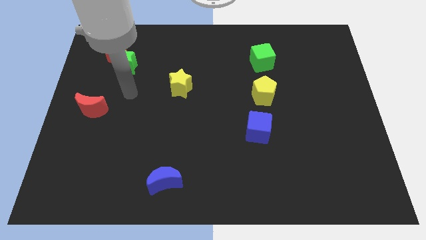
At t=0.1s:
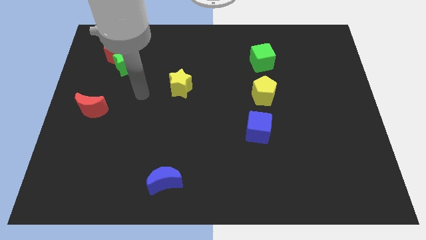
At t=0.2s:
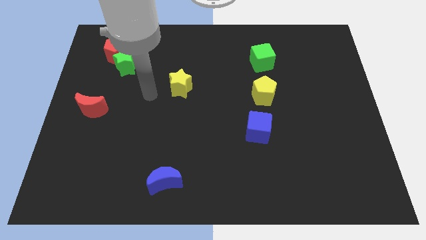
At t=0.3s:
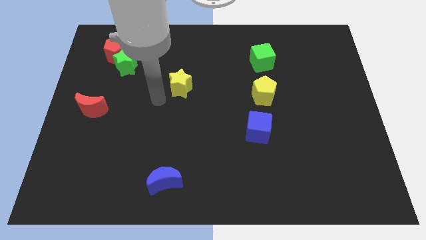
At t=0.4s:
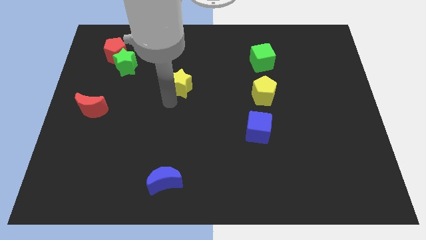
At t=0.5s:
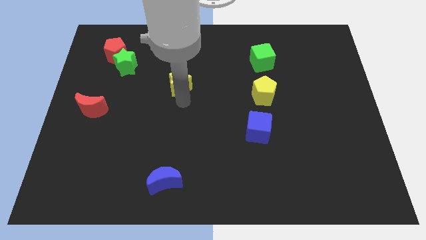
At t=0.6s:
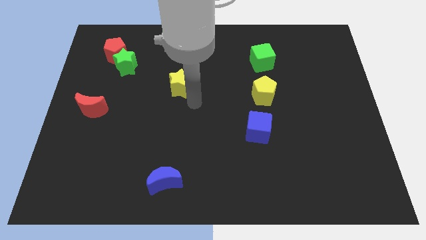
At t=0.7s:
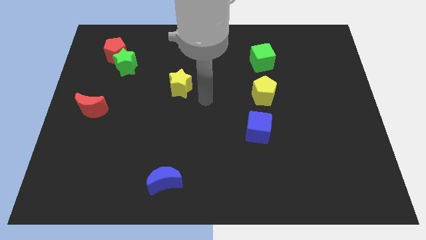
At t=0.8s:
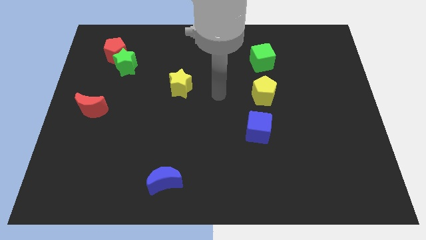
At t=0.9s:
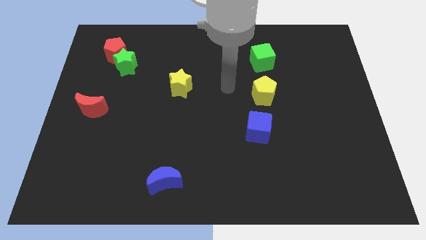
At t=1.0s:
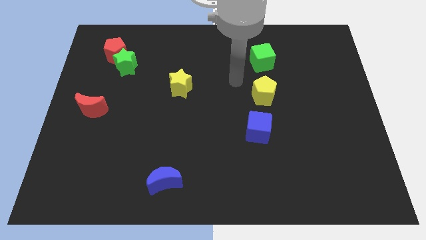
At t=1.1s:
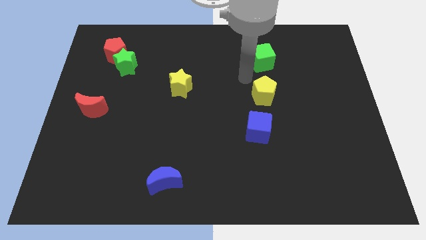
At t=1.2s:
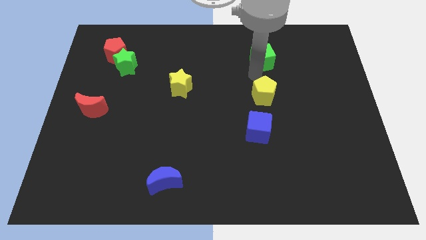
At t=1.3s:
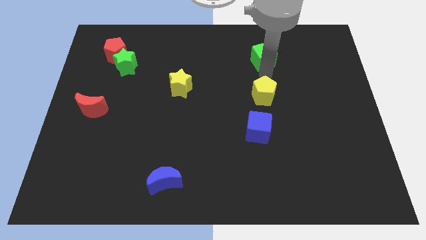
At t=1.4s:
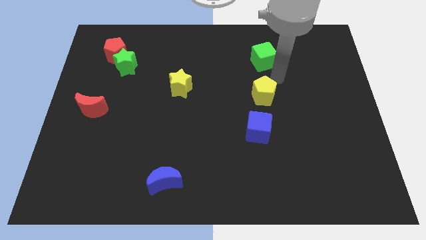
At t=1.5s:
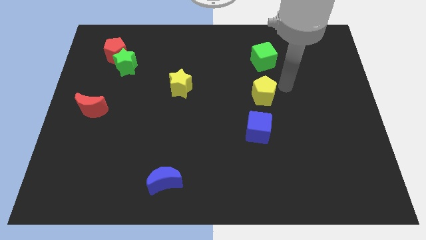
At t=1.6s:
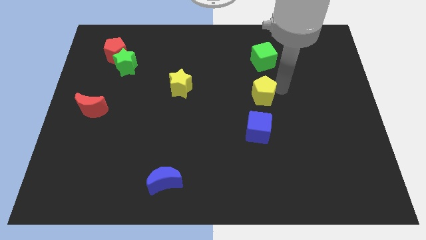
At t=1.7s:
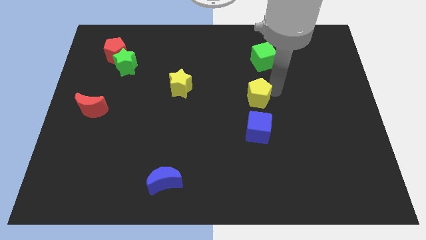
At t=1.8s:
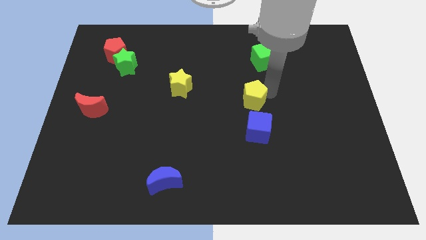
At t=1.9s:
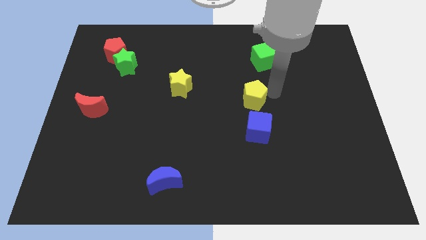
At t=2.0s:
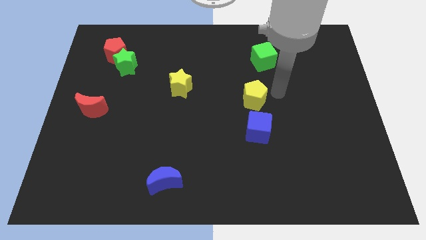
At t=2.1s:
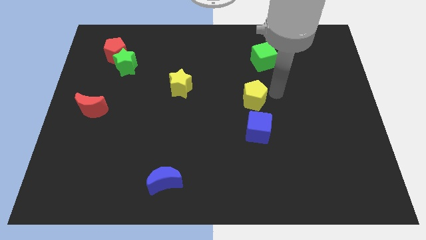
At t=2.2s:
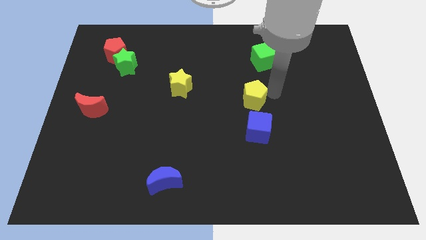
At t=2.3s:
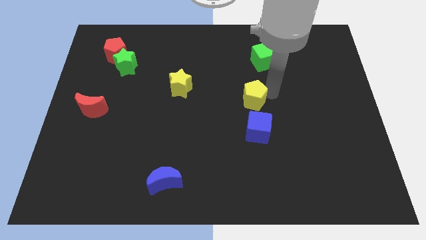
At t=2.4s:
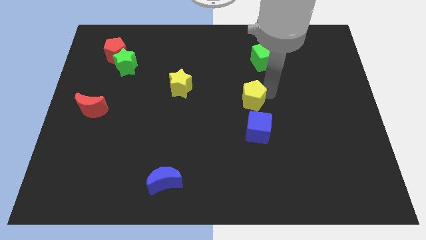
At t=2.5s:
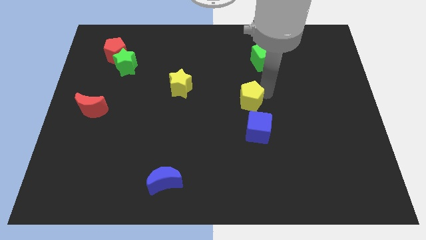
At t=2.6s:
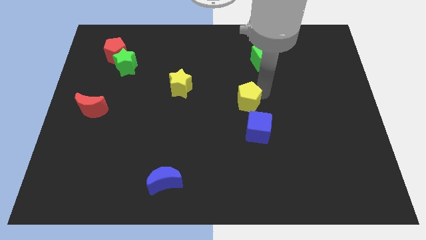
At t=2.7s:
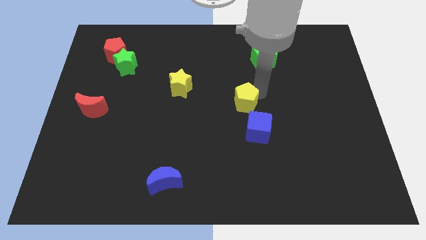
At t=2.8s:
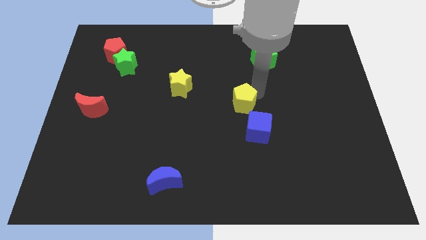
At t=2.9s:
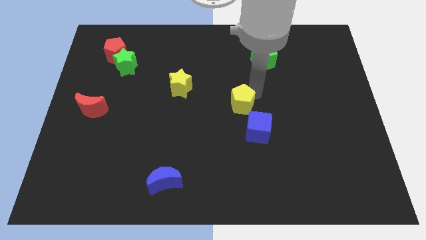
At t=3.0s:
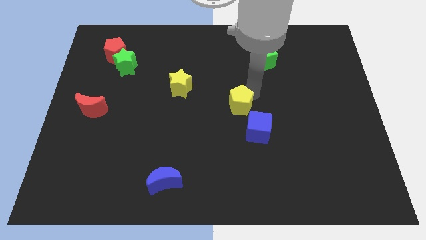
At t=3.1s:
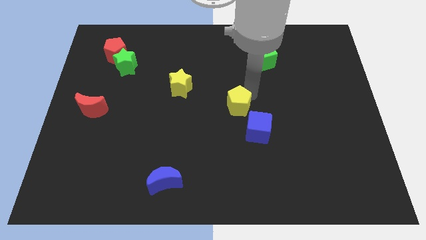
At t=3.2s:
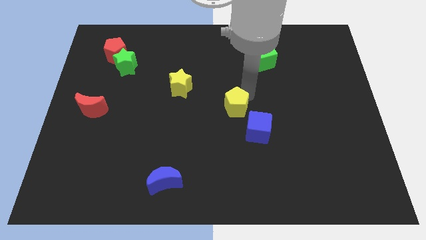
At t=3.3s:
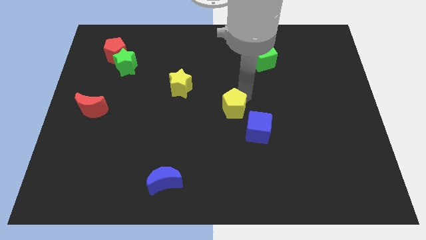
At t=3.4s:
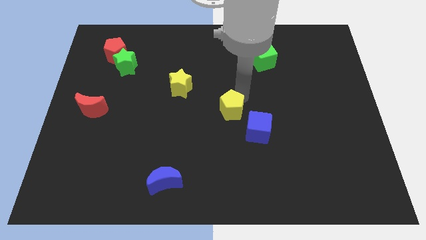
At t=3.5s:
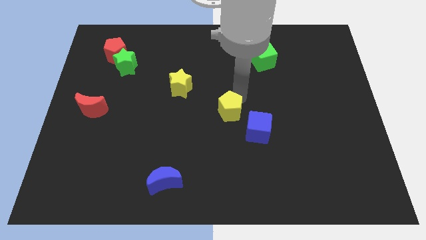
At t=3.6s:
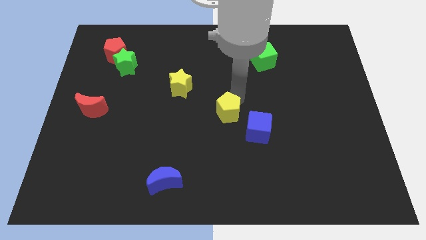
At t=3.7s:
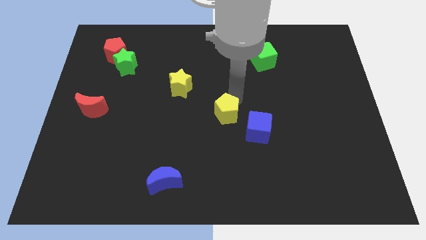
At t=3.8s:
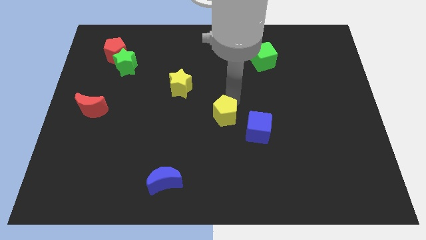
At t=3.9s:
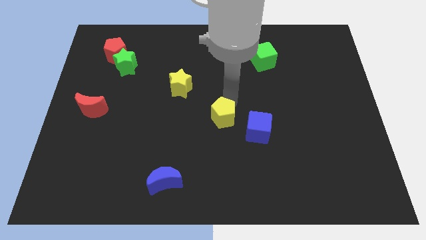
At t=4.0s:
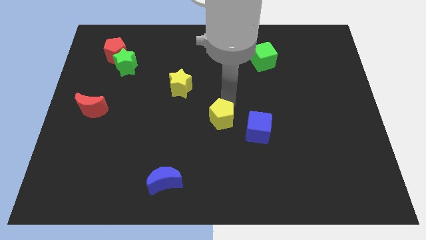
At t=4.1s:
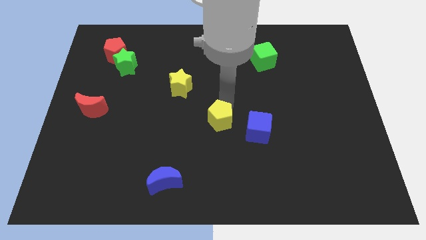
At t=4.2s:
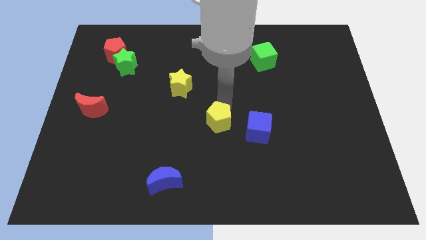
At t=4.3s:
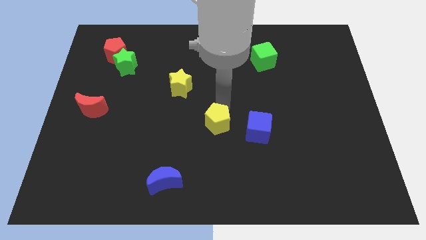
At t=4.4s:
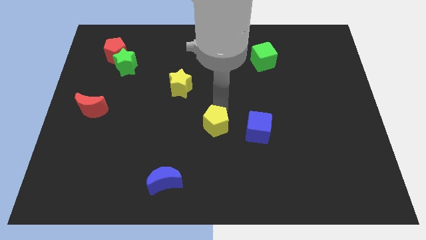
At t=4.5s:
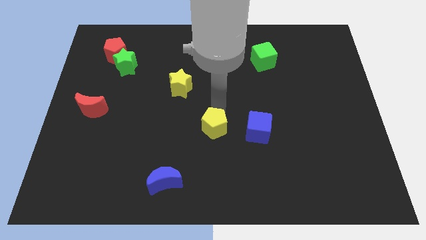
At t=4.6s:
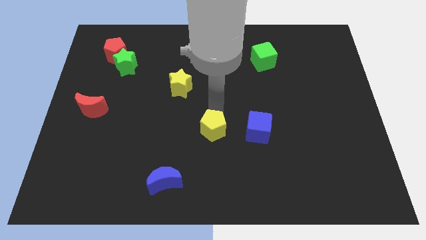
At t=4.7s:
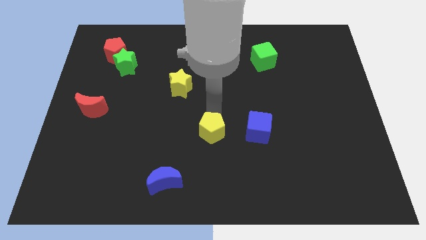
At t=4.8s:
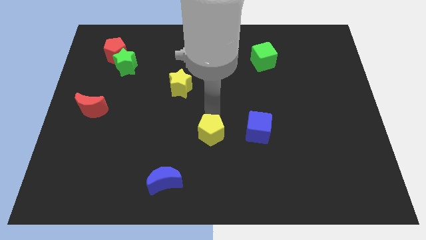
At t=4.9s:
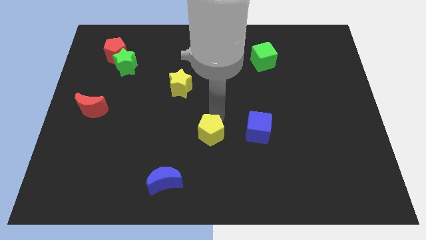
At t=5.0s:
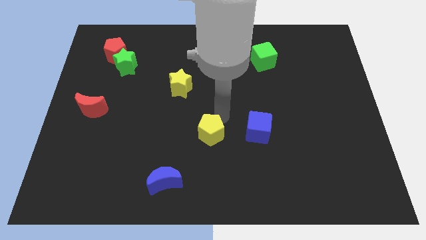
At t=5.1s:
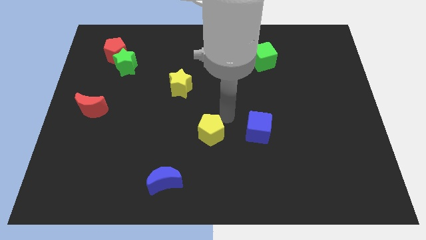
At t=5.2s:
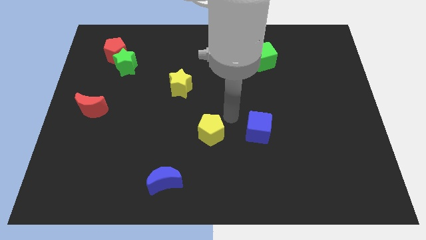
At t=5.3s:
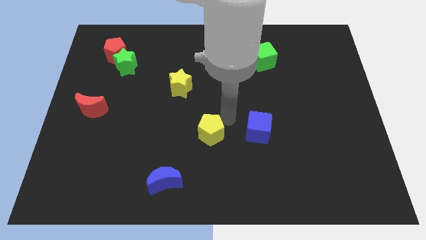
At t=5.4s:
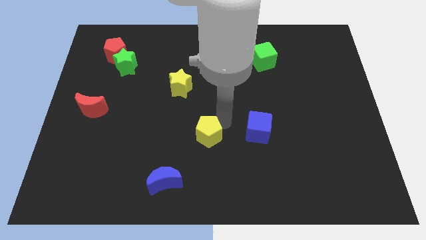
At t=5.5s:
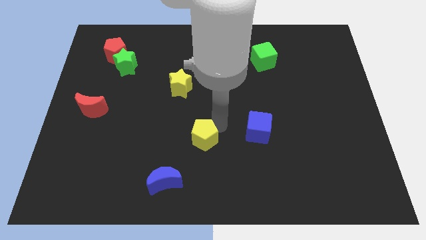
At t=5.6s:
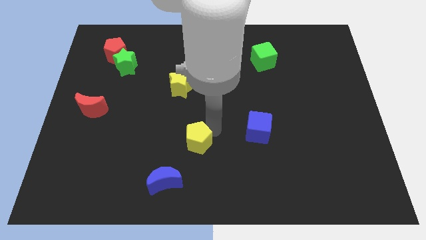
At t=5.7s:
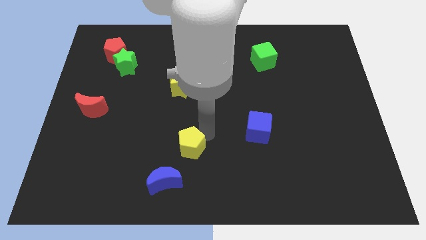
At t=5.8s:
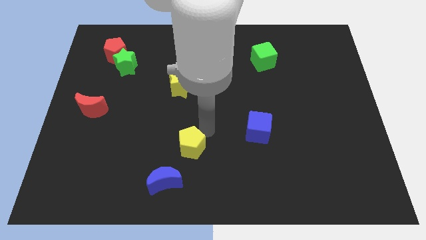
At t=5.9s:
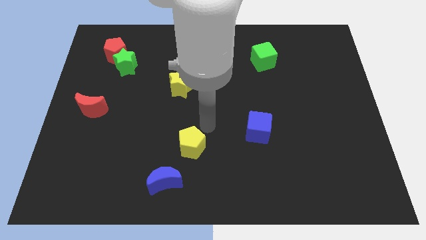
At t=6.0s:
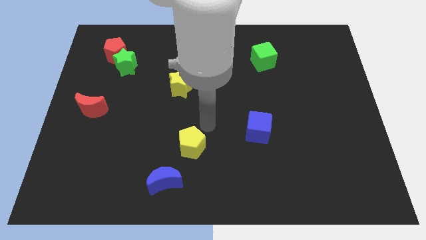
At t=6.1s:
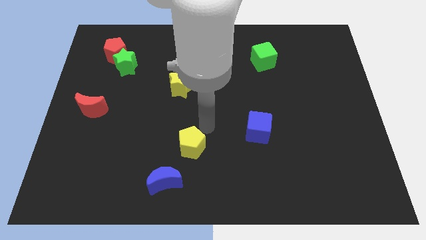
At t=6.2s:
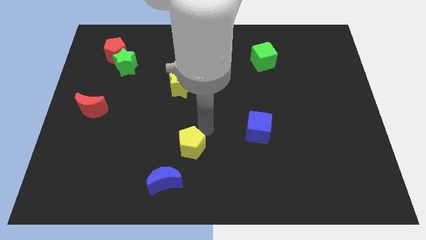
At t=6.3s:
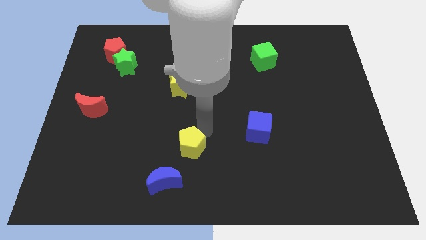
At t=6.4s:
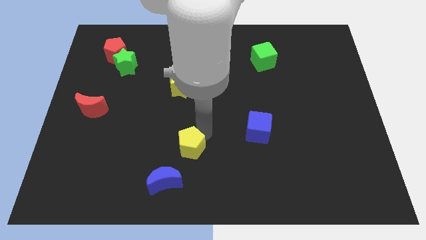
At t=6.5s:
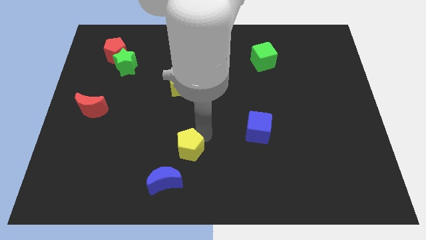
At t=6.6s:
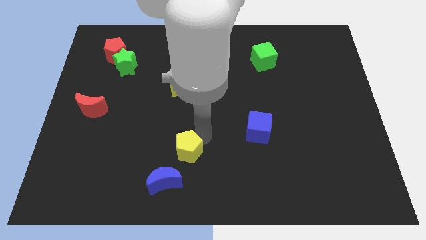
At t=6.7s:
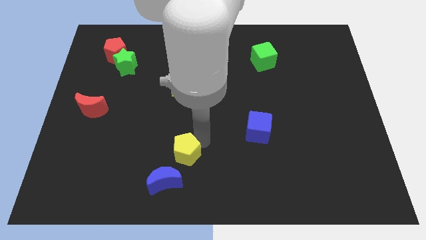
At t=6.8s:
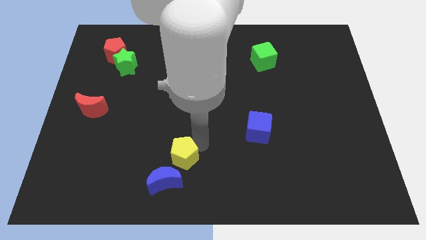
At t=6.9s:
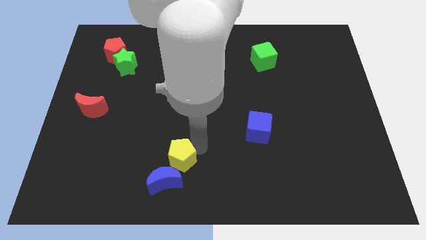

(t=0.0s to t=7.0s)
push the yellow pentagon next to the blue moon
